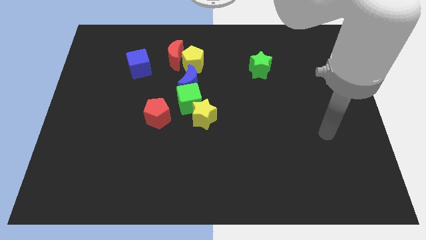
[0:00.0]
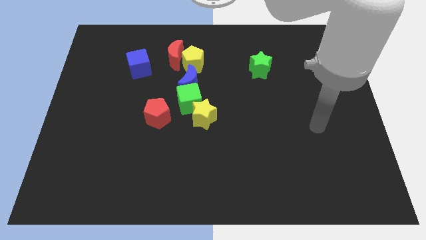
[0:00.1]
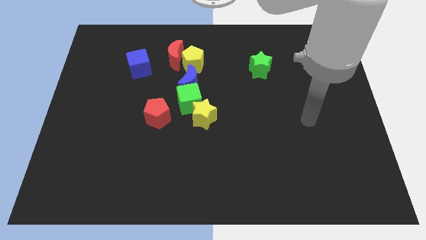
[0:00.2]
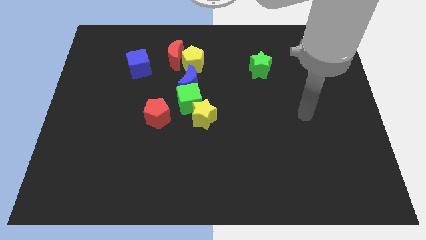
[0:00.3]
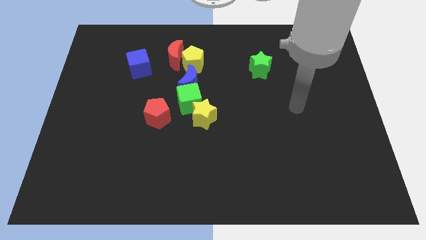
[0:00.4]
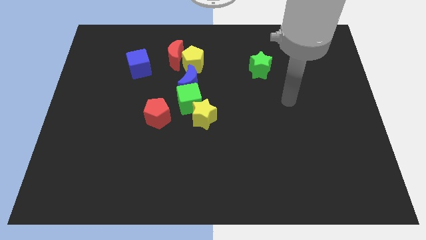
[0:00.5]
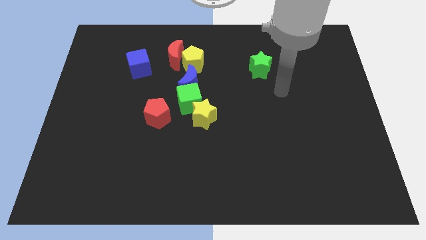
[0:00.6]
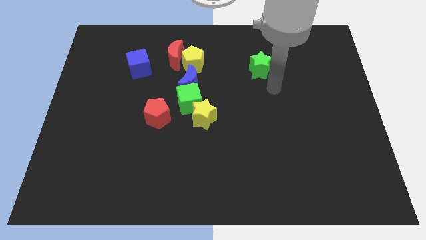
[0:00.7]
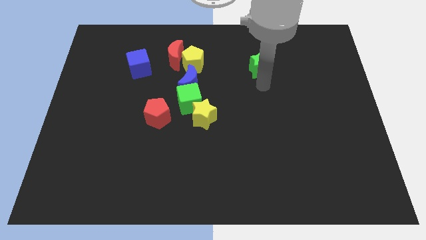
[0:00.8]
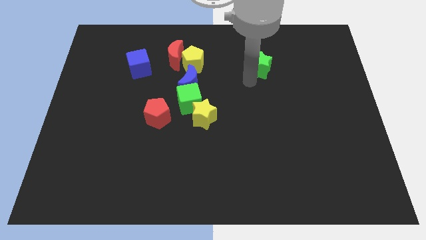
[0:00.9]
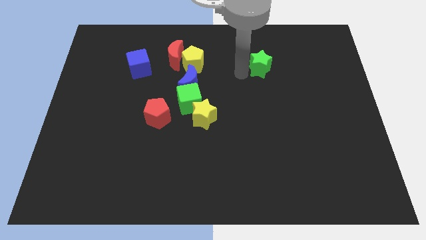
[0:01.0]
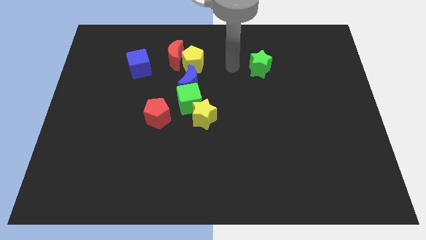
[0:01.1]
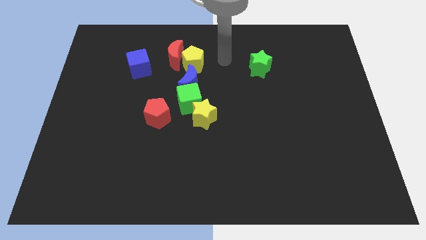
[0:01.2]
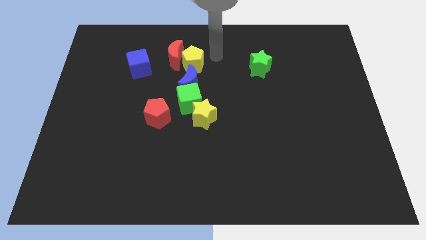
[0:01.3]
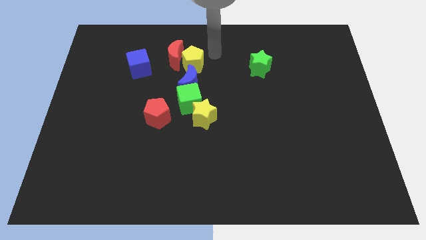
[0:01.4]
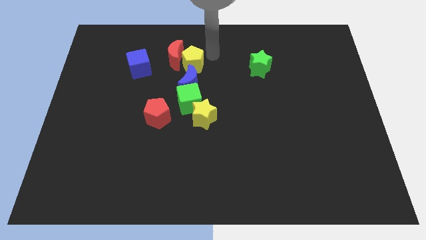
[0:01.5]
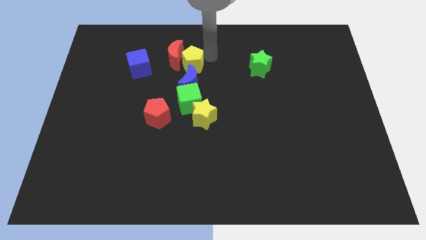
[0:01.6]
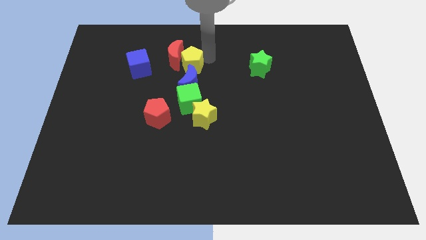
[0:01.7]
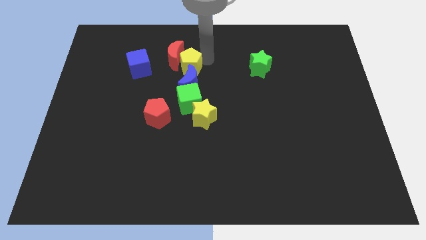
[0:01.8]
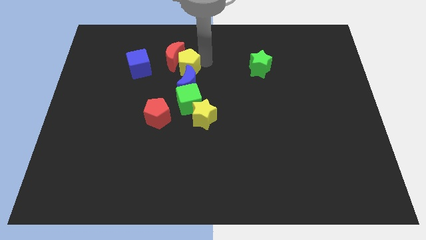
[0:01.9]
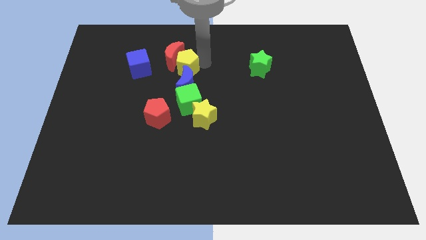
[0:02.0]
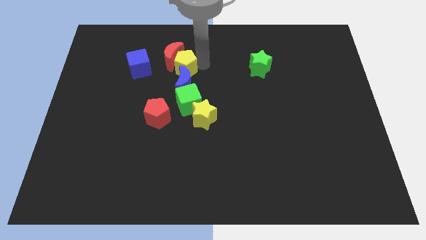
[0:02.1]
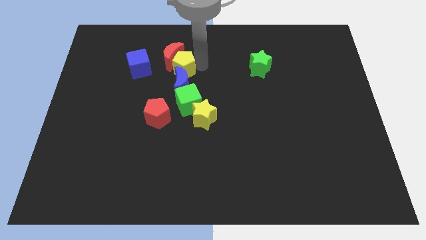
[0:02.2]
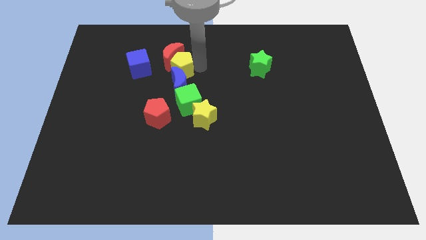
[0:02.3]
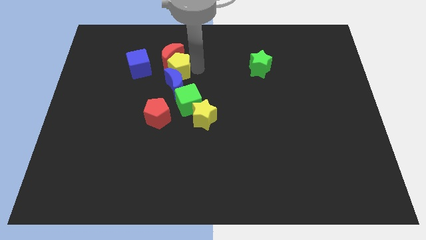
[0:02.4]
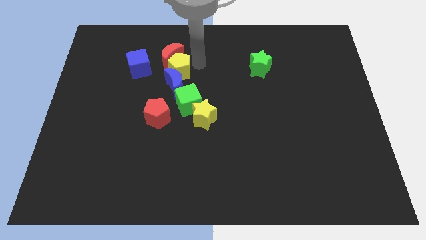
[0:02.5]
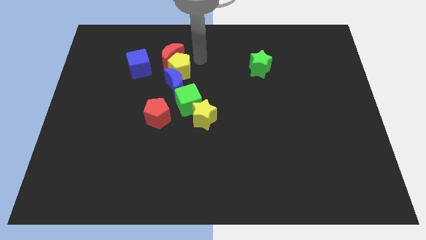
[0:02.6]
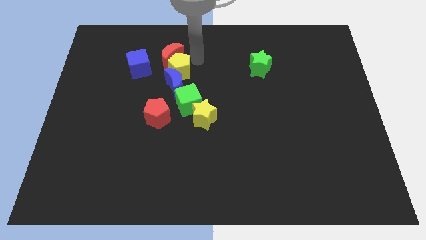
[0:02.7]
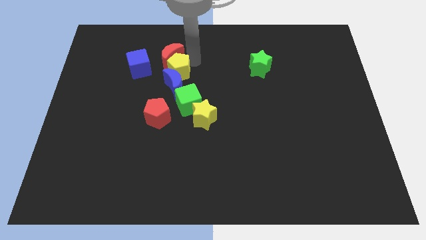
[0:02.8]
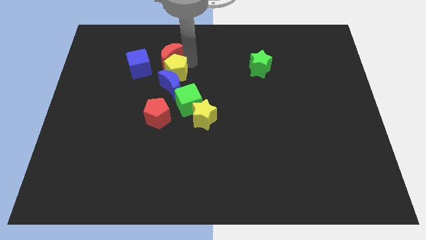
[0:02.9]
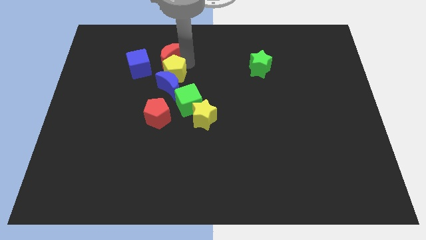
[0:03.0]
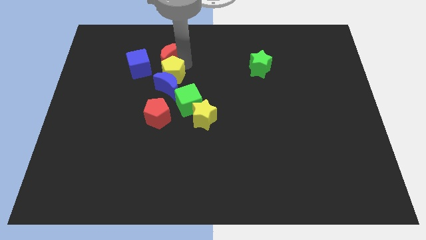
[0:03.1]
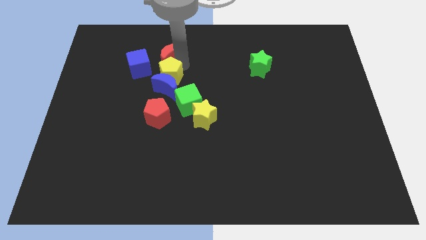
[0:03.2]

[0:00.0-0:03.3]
slightly push the yellow pentagon down and then to the left

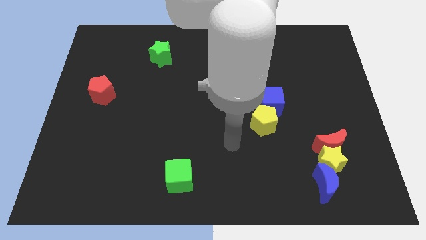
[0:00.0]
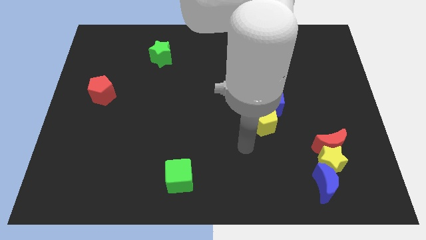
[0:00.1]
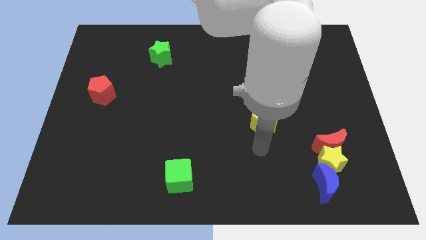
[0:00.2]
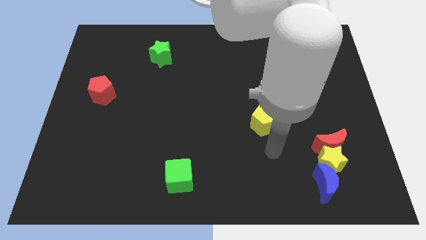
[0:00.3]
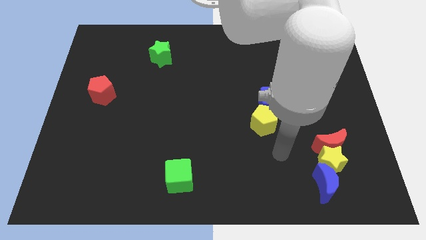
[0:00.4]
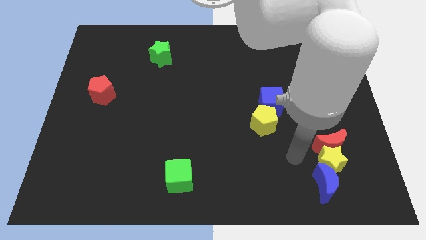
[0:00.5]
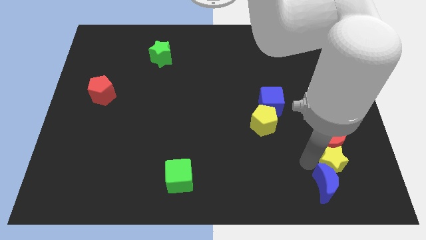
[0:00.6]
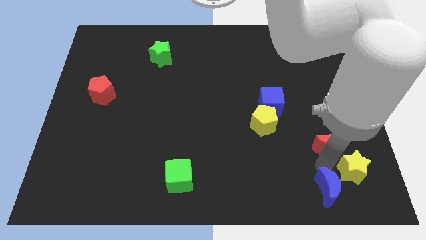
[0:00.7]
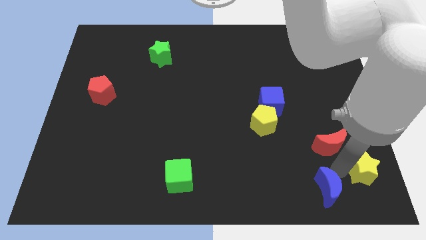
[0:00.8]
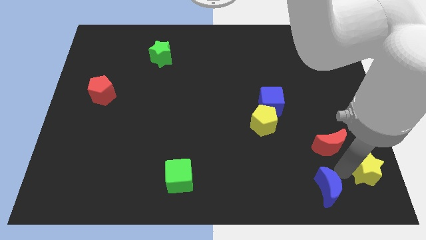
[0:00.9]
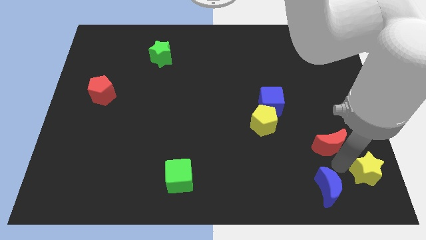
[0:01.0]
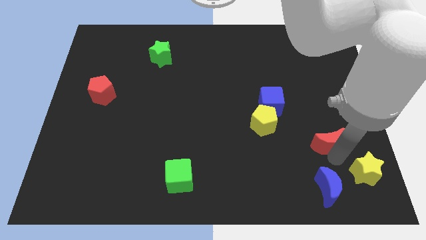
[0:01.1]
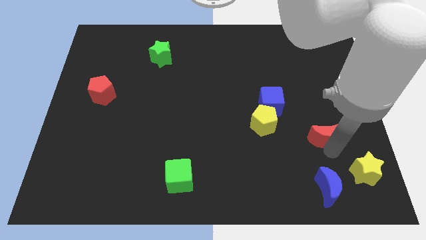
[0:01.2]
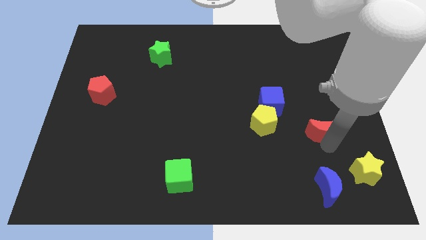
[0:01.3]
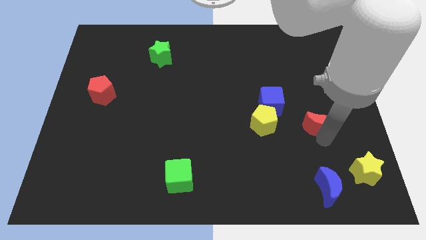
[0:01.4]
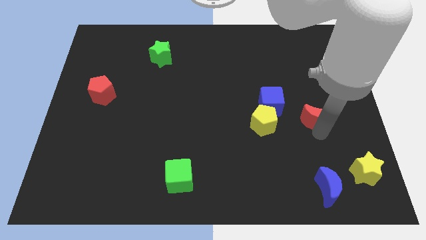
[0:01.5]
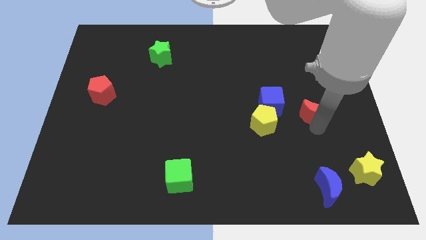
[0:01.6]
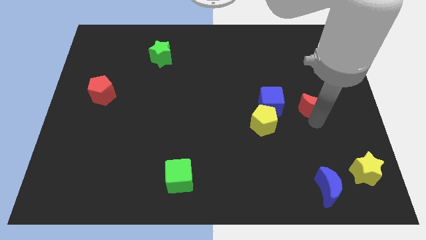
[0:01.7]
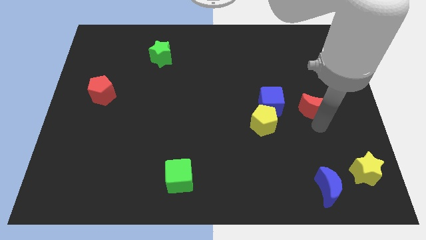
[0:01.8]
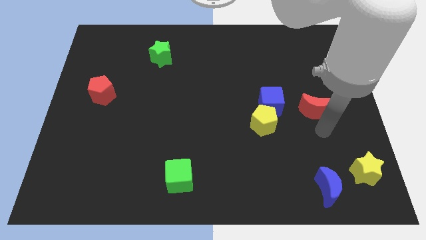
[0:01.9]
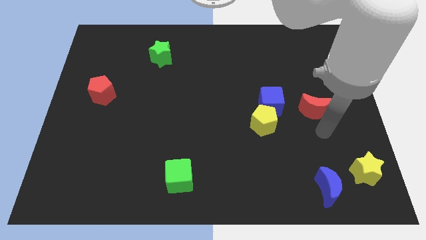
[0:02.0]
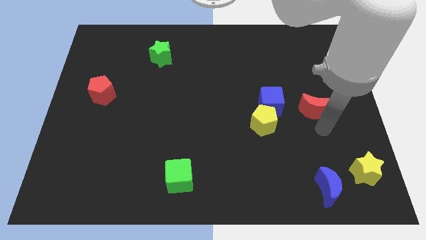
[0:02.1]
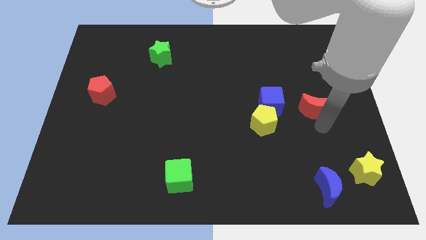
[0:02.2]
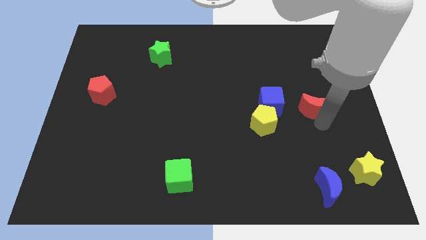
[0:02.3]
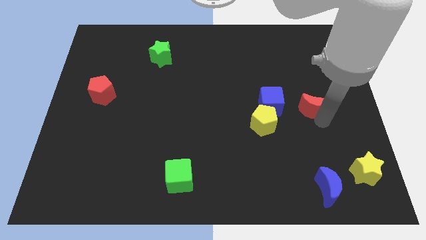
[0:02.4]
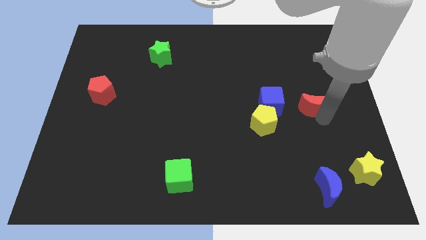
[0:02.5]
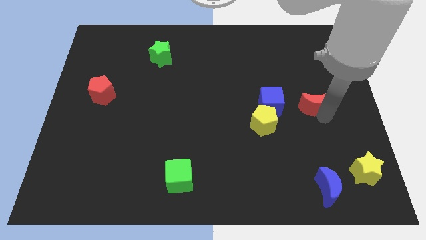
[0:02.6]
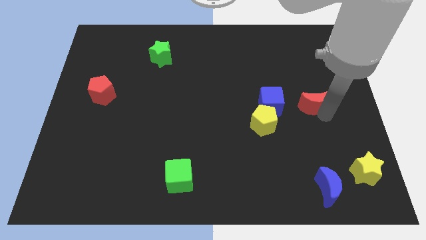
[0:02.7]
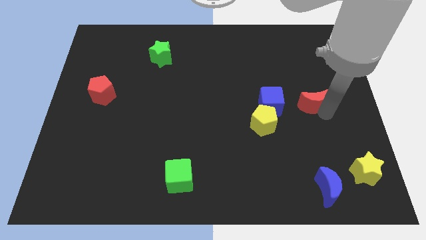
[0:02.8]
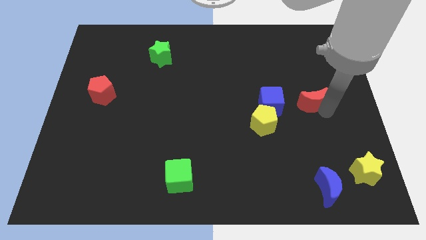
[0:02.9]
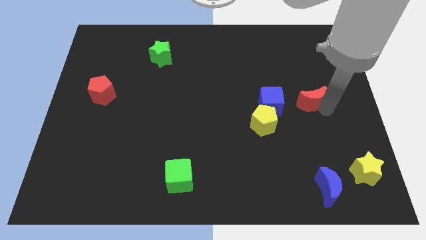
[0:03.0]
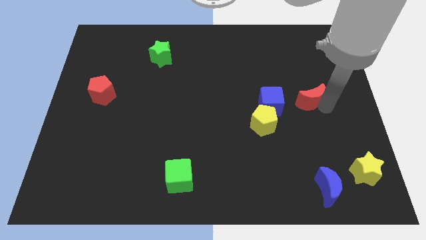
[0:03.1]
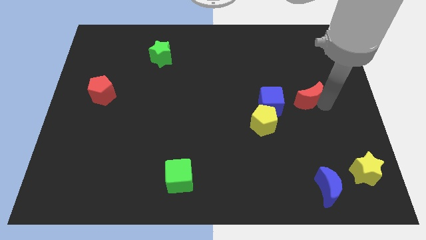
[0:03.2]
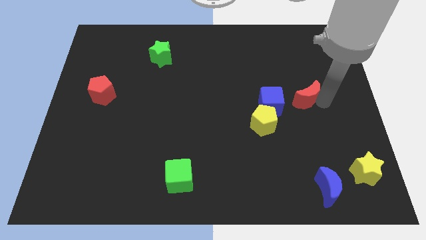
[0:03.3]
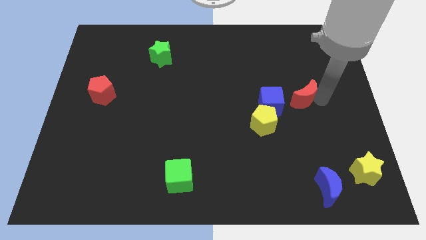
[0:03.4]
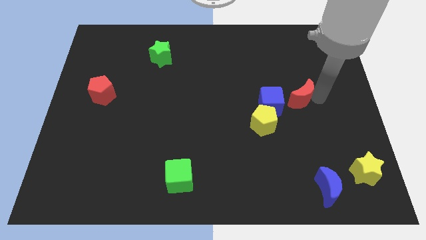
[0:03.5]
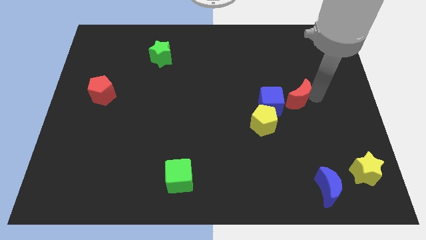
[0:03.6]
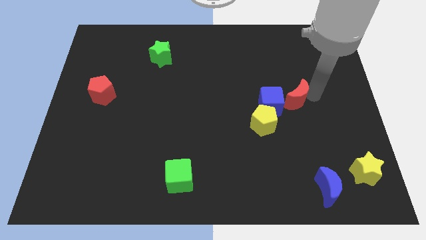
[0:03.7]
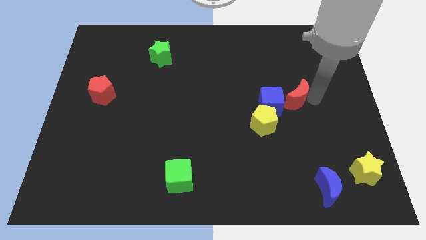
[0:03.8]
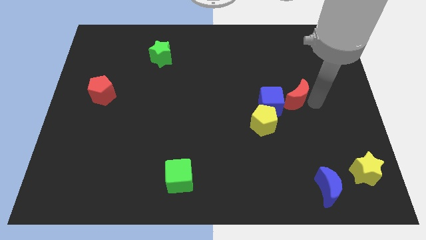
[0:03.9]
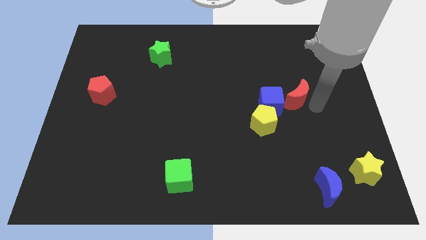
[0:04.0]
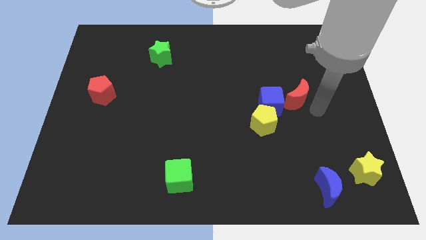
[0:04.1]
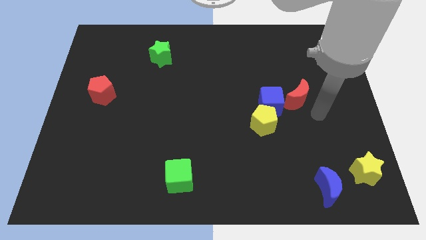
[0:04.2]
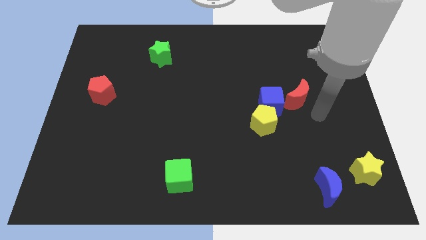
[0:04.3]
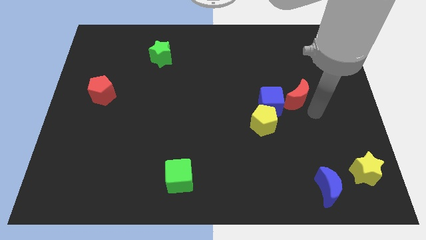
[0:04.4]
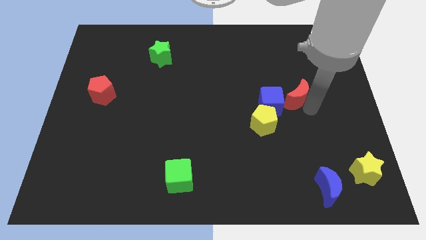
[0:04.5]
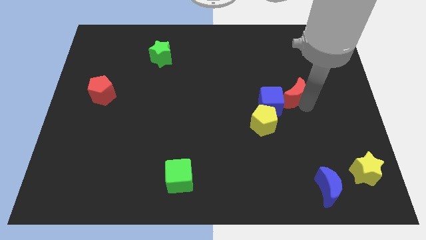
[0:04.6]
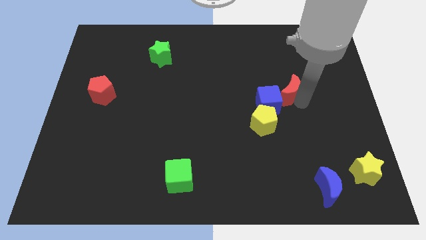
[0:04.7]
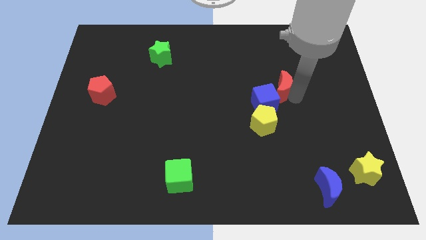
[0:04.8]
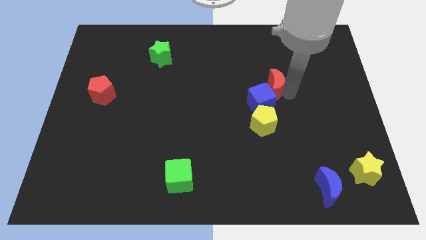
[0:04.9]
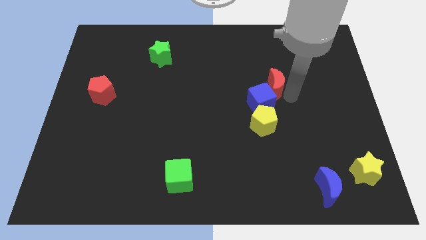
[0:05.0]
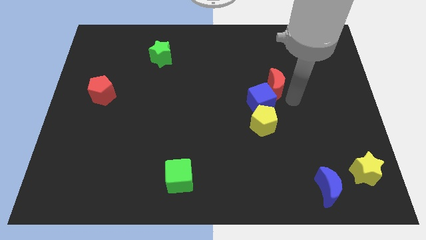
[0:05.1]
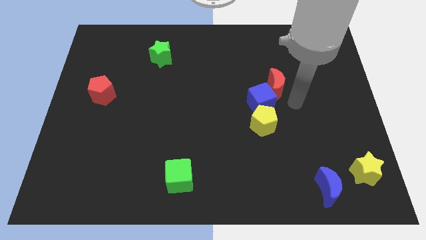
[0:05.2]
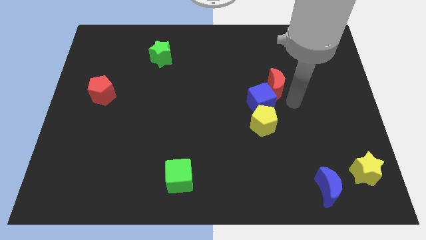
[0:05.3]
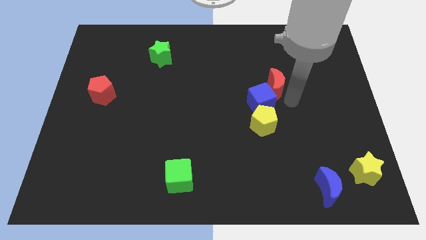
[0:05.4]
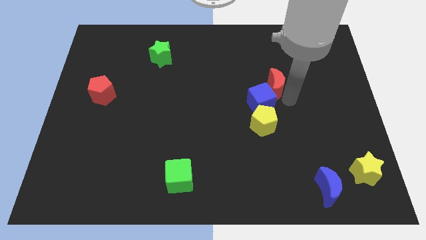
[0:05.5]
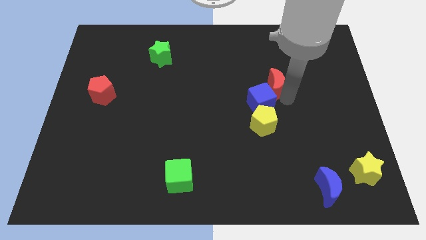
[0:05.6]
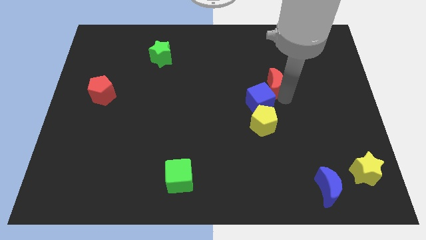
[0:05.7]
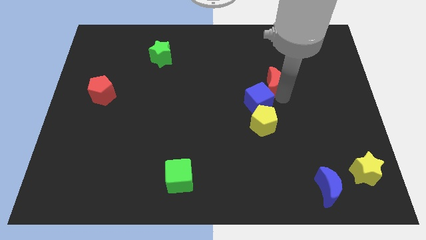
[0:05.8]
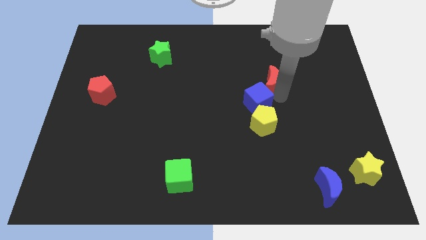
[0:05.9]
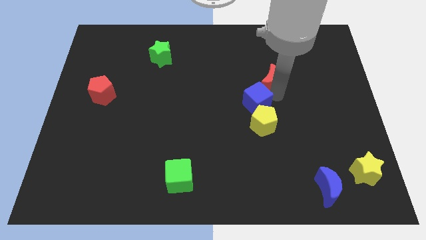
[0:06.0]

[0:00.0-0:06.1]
slide the red moon upwards and left
